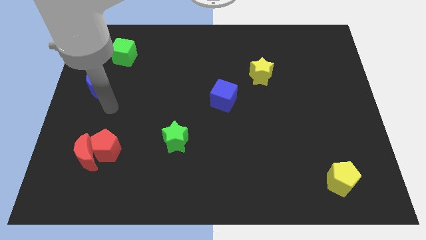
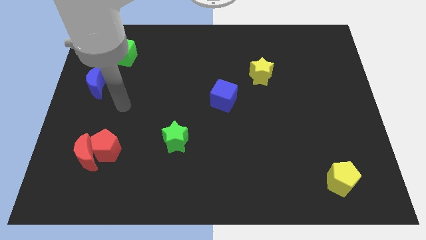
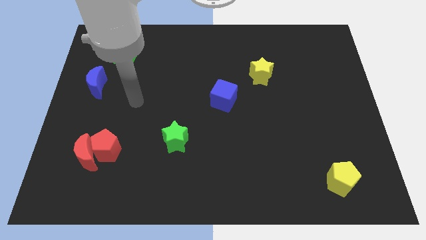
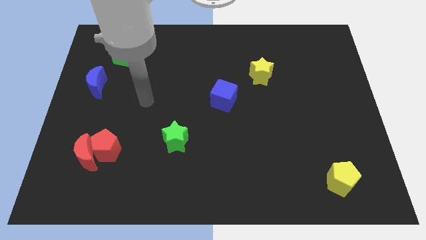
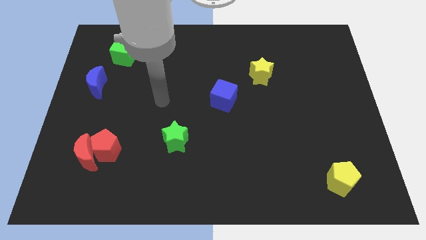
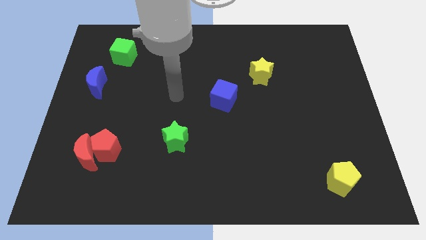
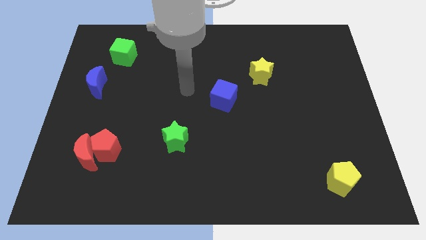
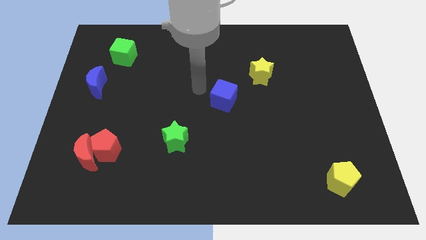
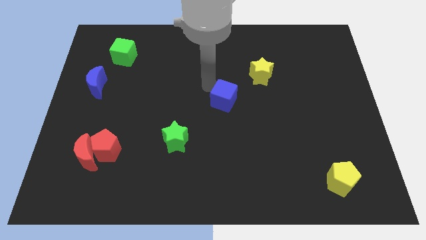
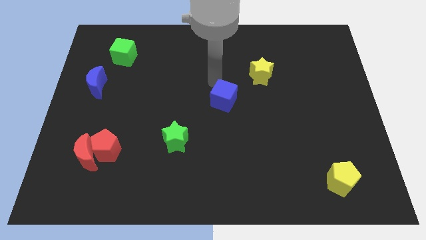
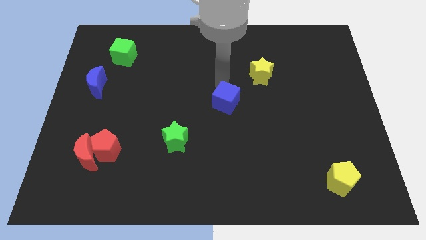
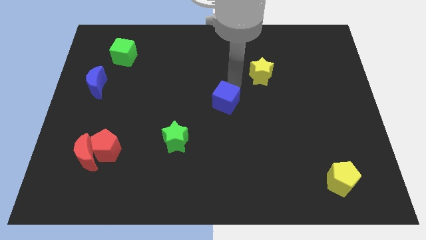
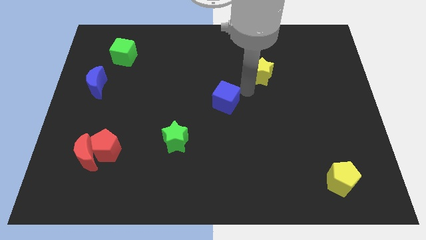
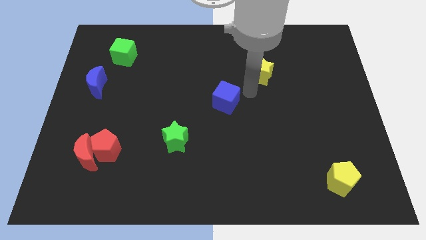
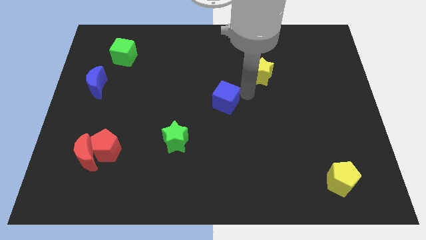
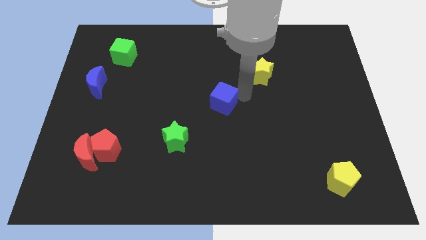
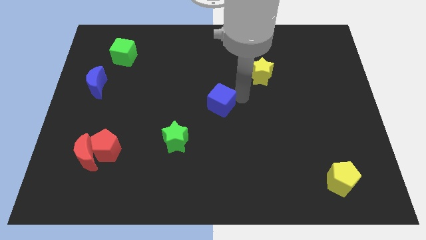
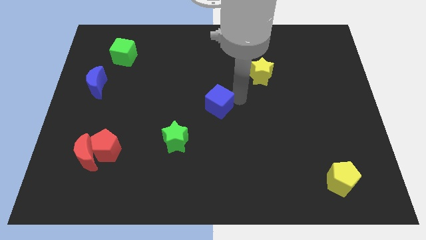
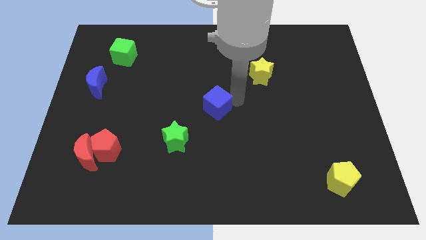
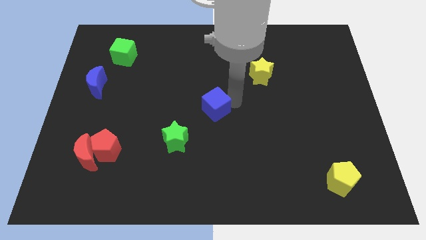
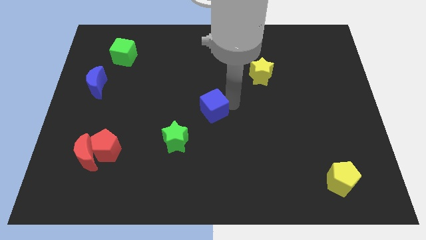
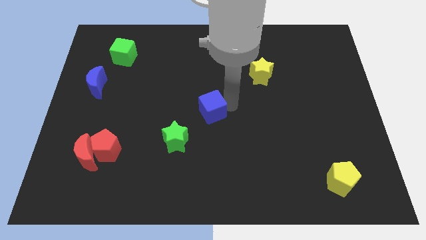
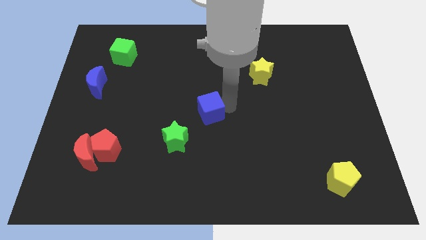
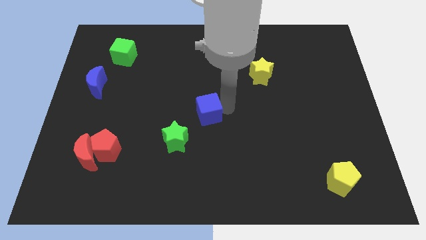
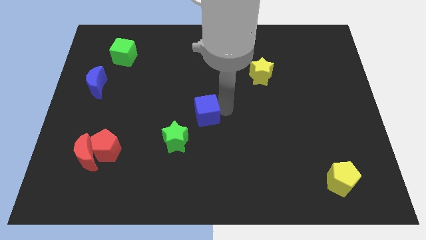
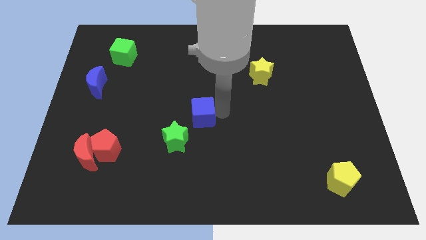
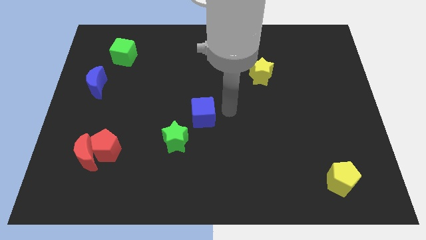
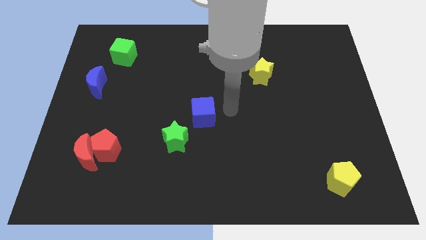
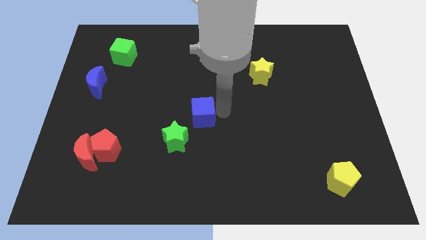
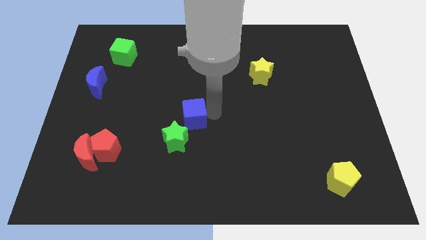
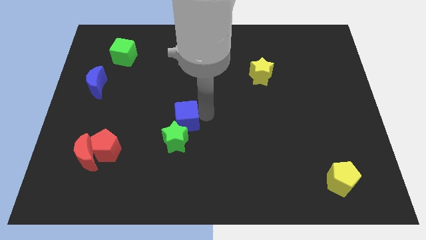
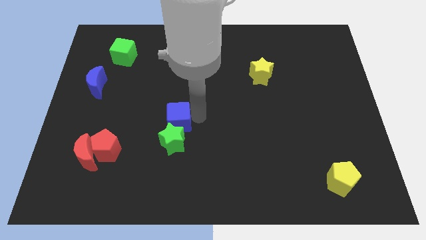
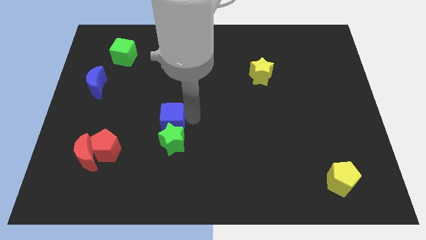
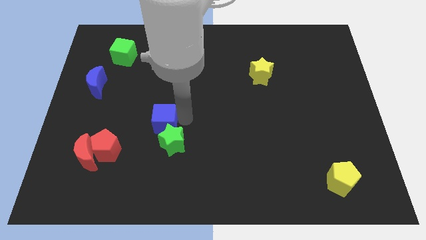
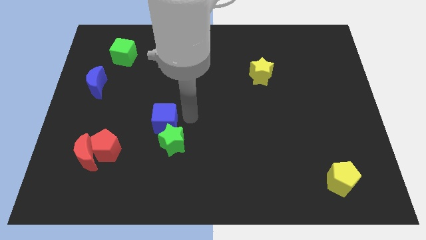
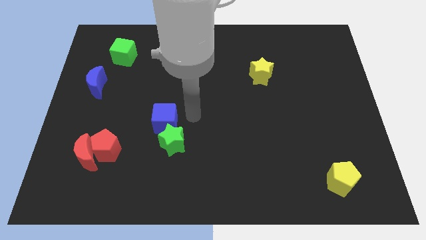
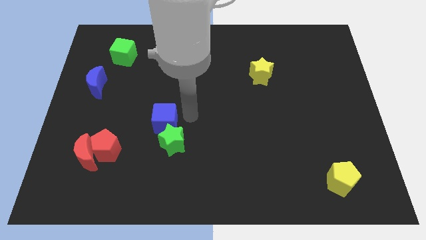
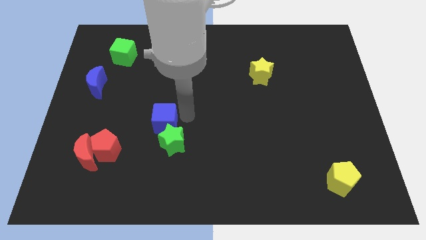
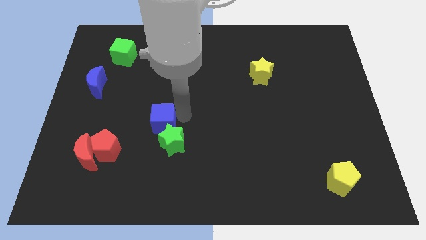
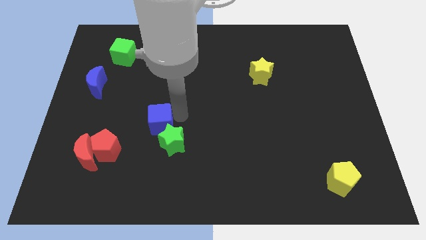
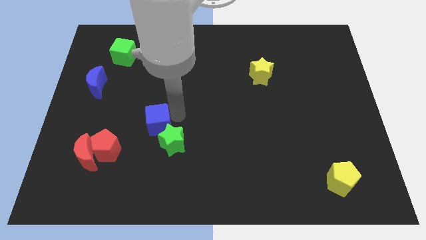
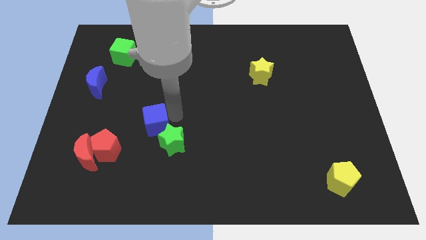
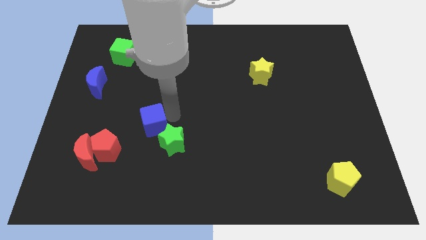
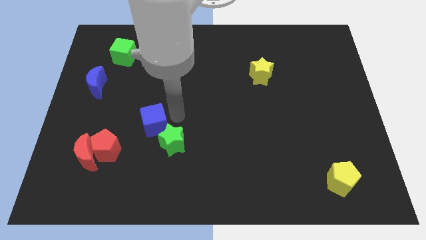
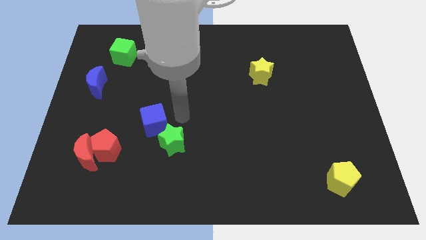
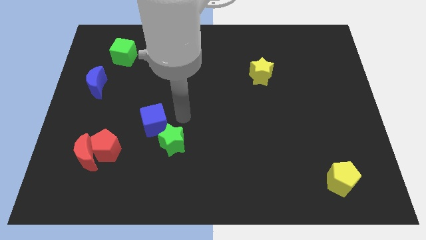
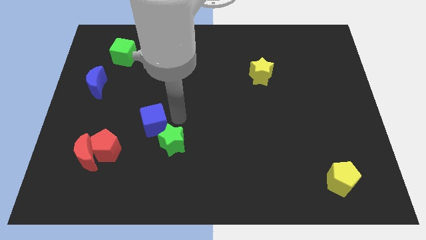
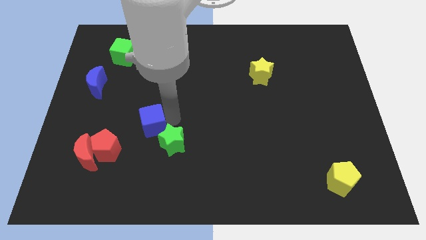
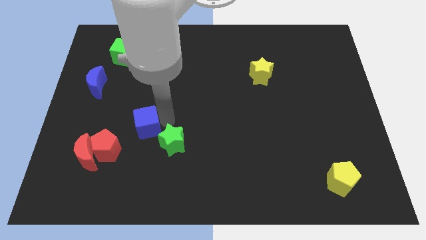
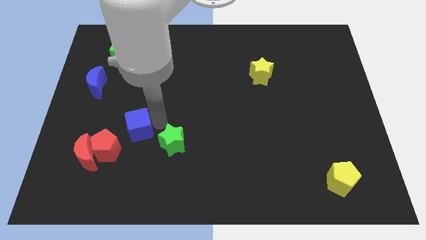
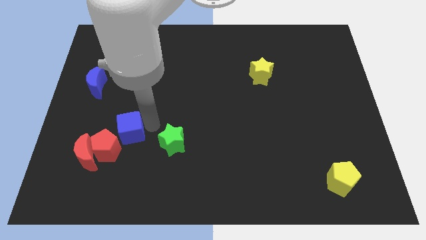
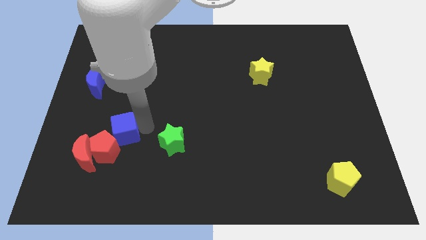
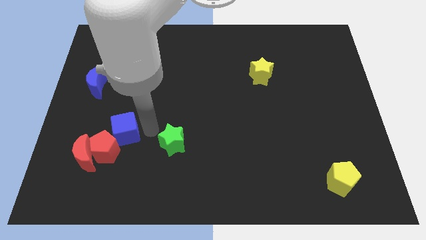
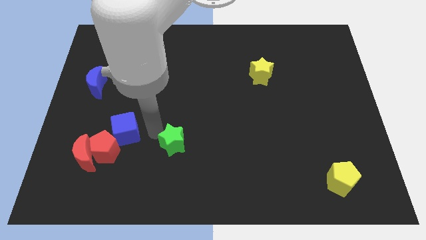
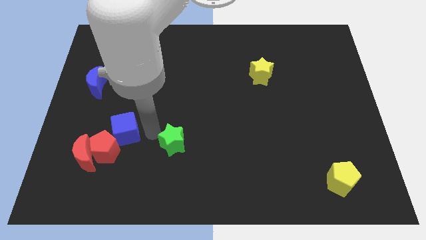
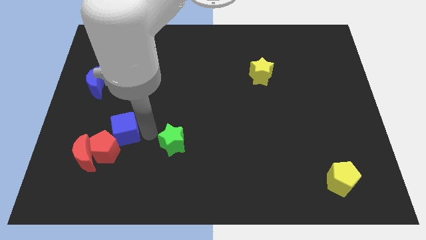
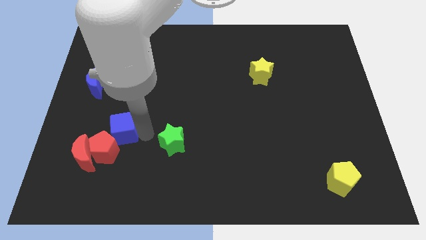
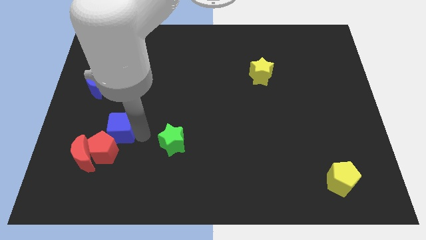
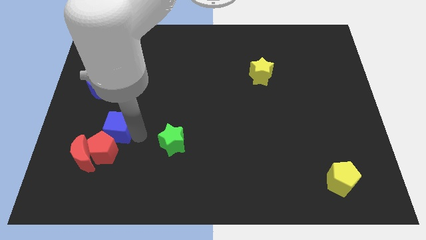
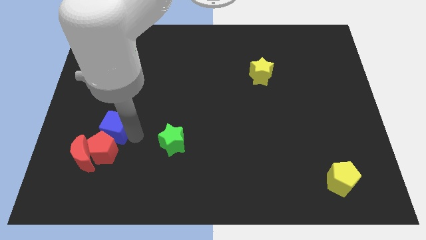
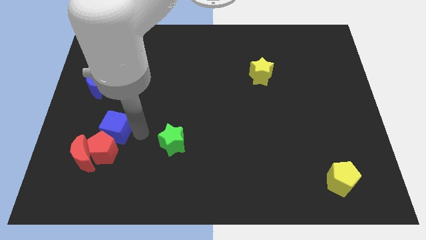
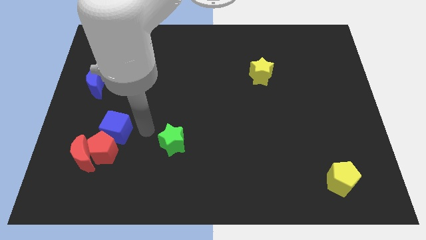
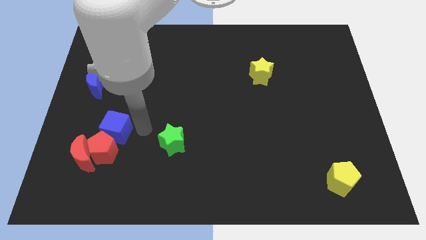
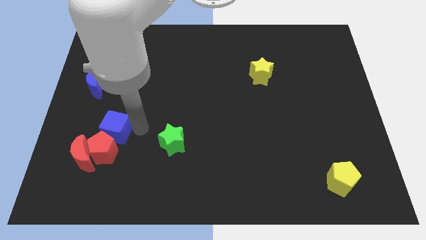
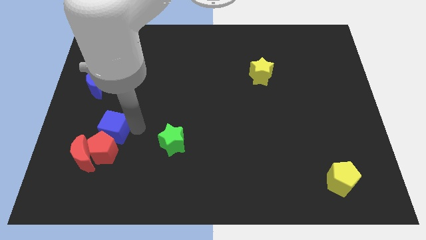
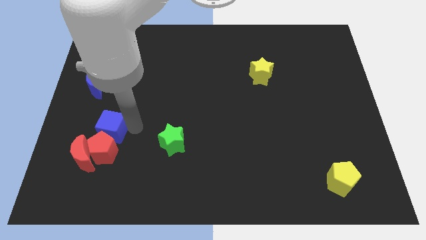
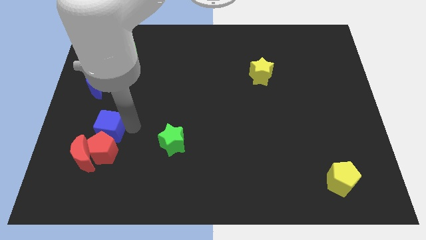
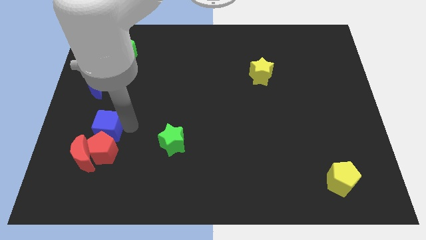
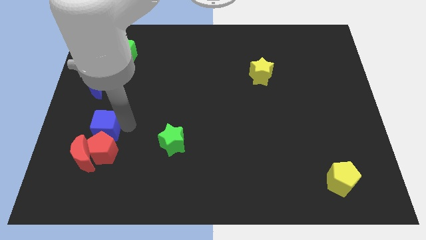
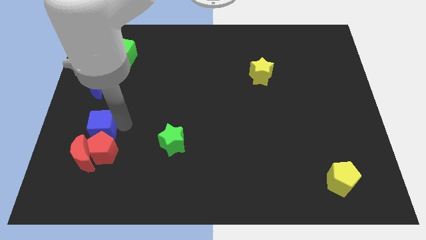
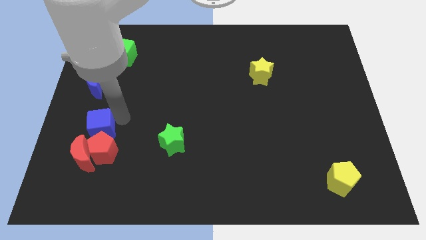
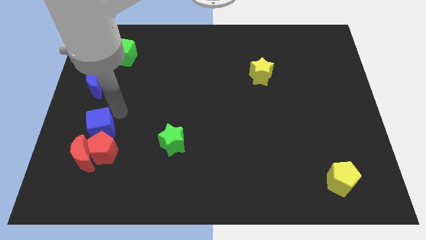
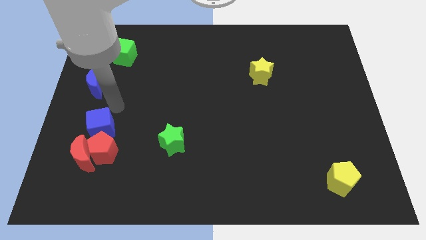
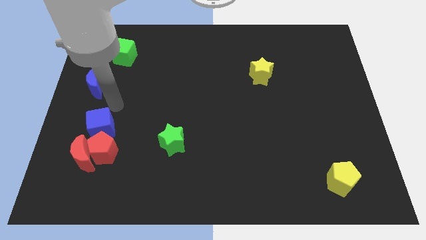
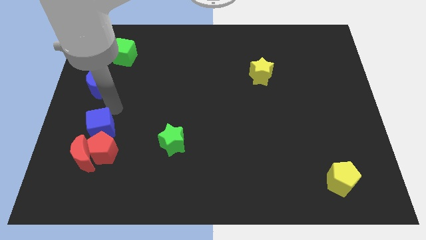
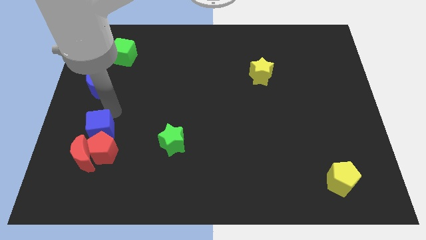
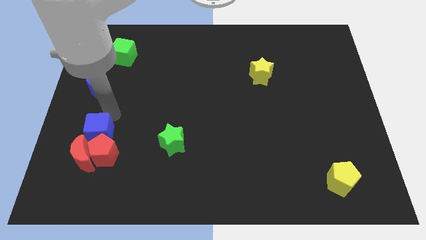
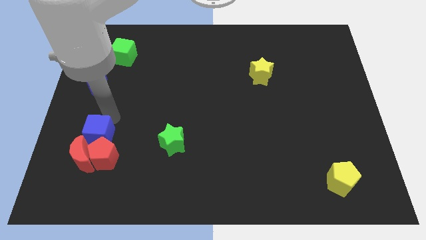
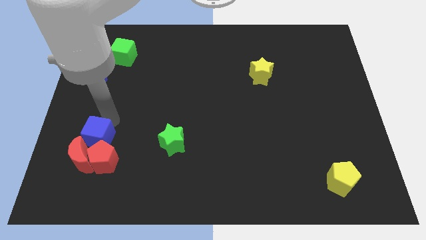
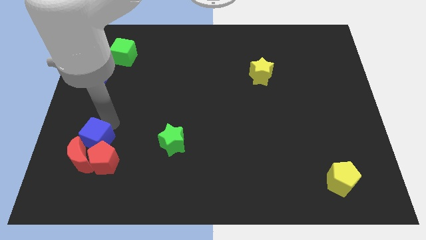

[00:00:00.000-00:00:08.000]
slide the blue cube close to the red moon
